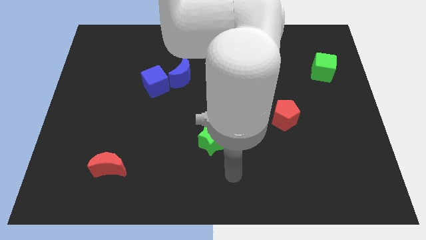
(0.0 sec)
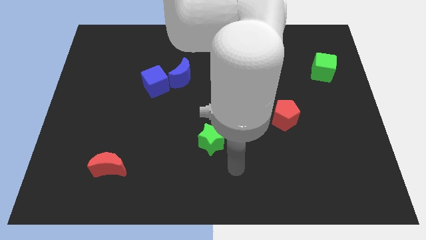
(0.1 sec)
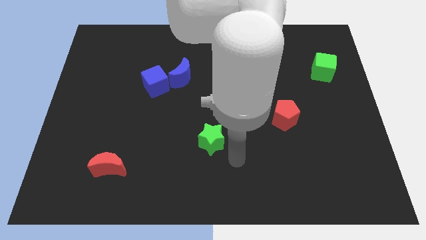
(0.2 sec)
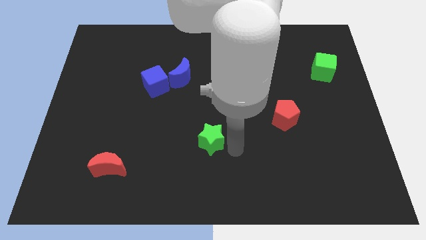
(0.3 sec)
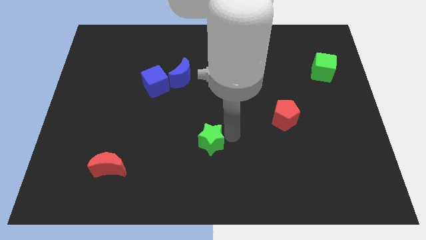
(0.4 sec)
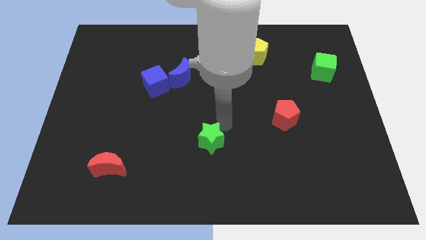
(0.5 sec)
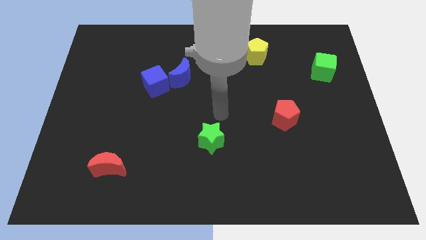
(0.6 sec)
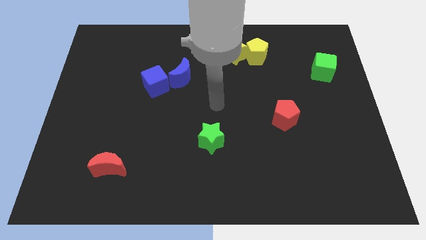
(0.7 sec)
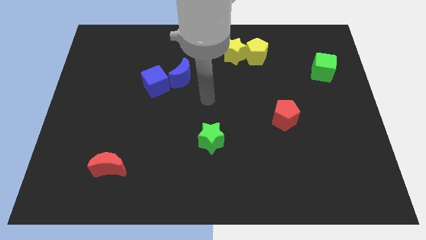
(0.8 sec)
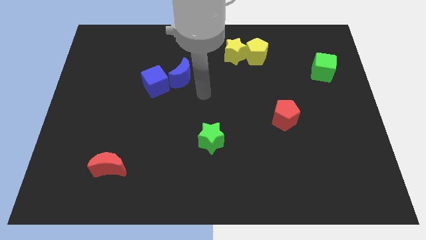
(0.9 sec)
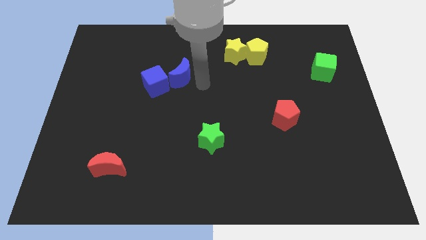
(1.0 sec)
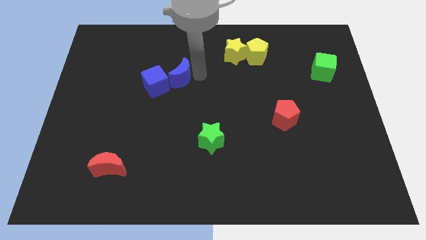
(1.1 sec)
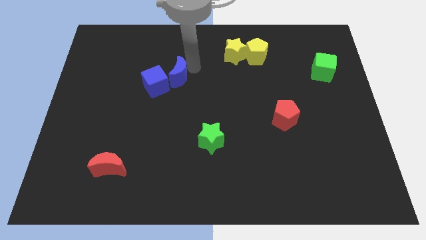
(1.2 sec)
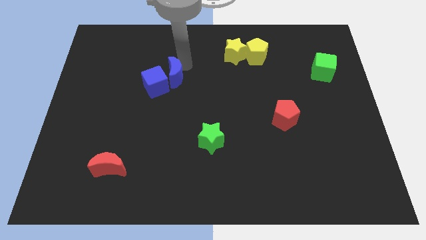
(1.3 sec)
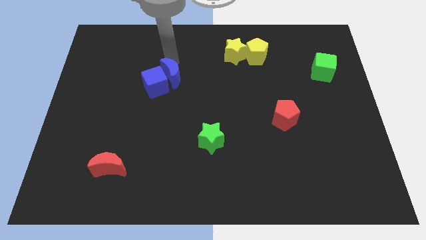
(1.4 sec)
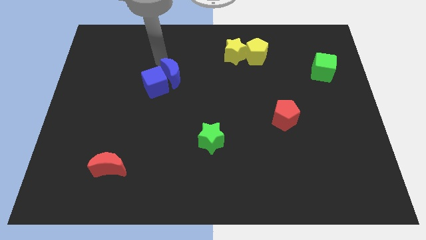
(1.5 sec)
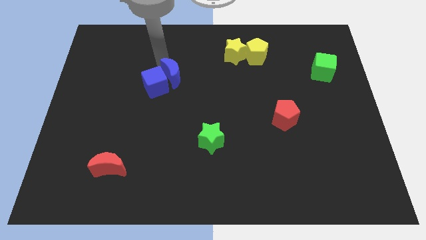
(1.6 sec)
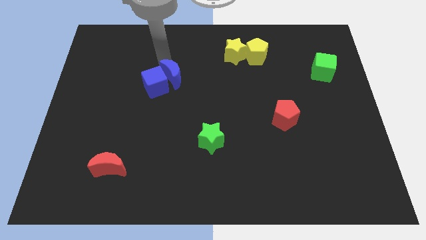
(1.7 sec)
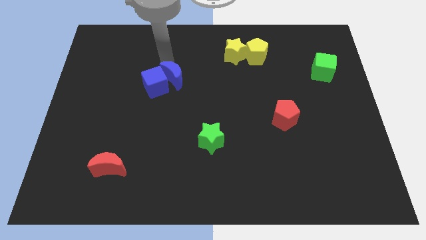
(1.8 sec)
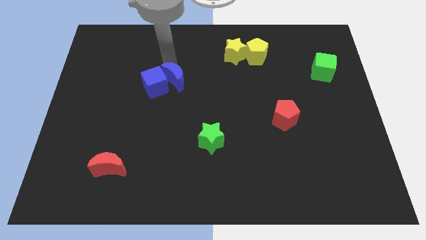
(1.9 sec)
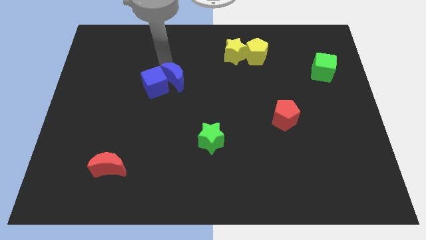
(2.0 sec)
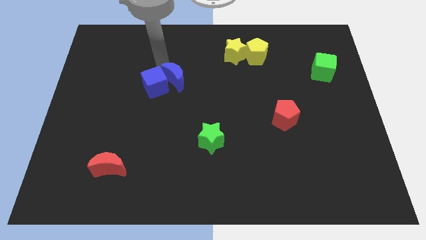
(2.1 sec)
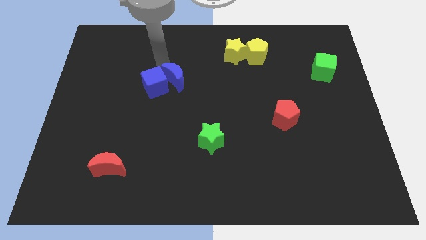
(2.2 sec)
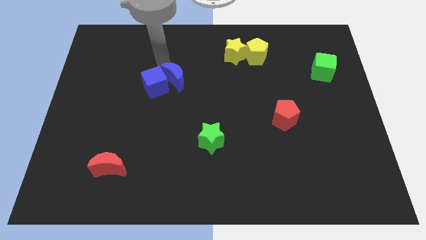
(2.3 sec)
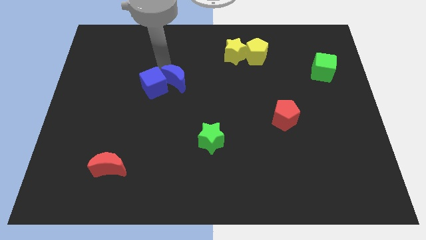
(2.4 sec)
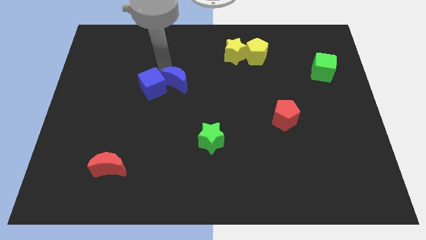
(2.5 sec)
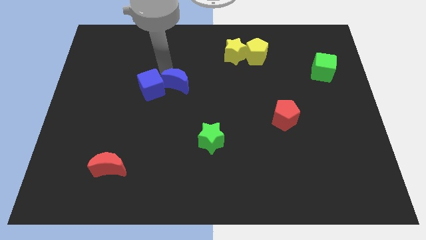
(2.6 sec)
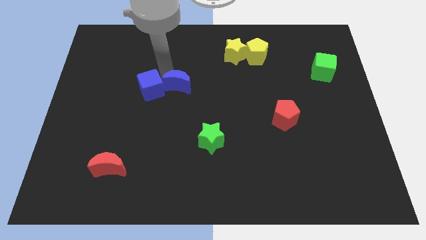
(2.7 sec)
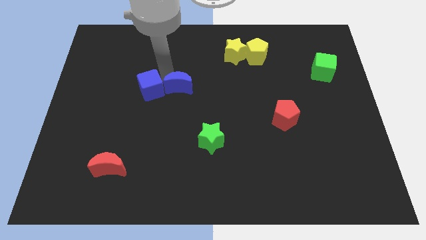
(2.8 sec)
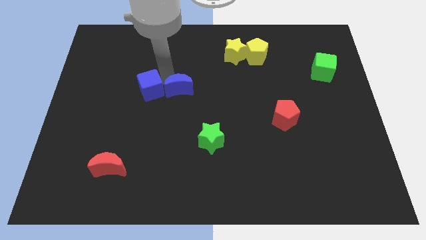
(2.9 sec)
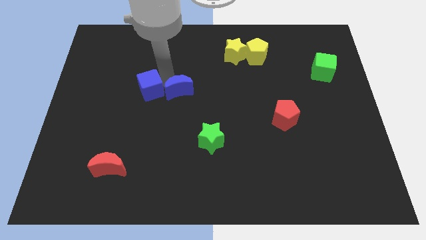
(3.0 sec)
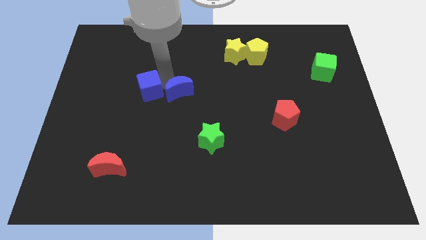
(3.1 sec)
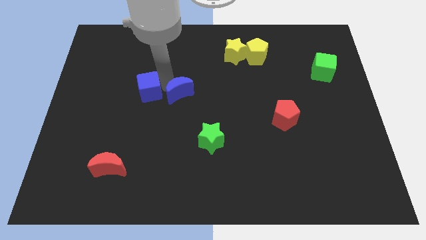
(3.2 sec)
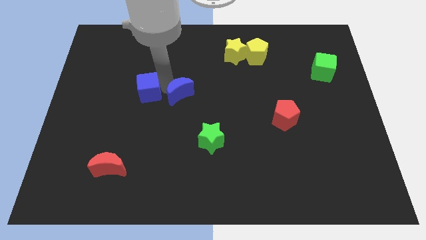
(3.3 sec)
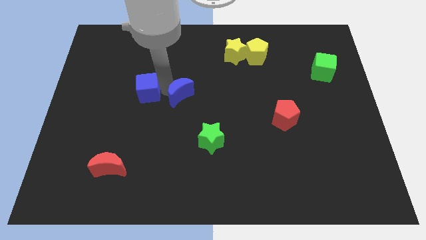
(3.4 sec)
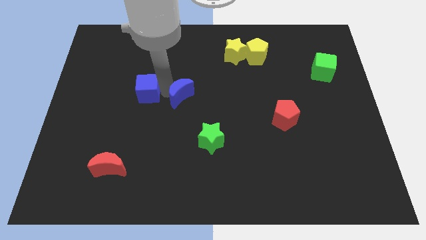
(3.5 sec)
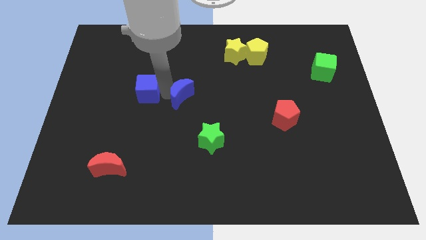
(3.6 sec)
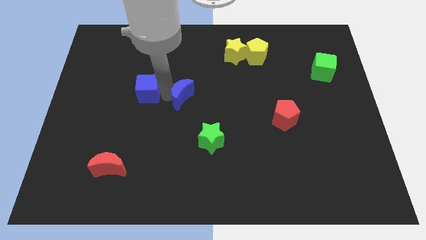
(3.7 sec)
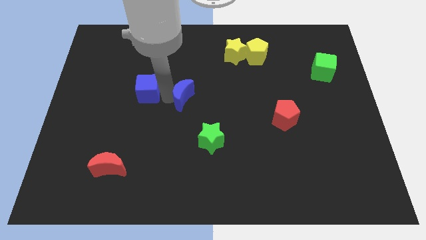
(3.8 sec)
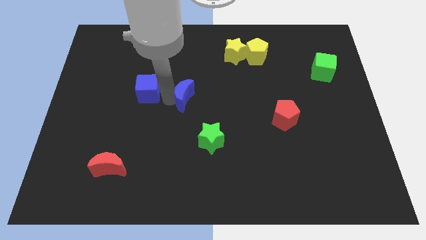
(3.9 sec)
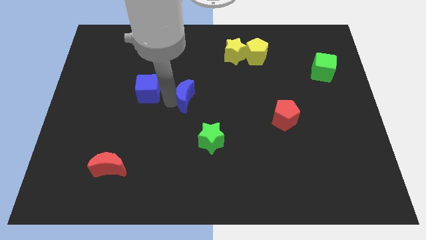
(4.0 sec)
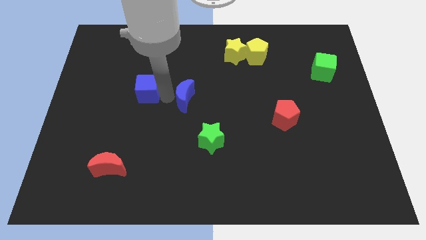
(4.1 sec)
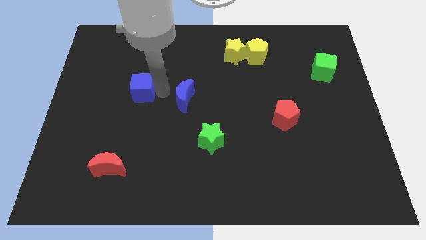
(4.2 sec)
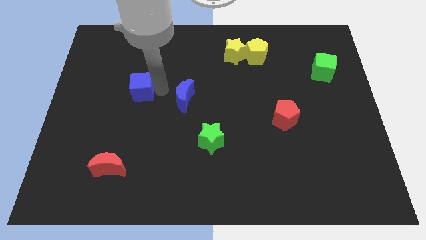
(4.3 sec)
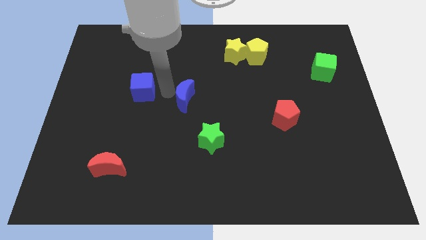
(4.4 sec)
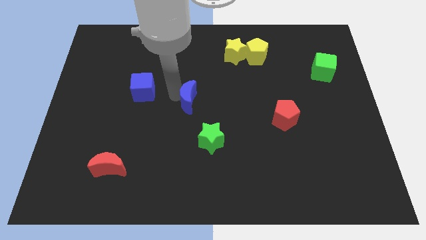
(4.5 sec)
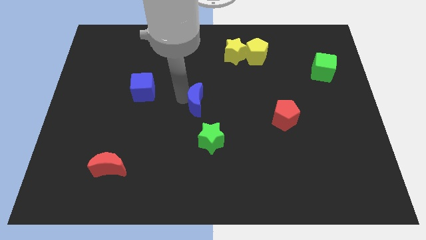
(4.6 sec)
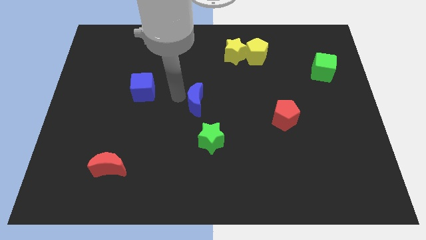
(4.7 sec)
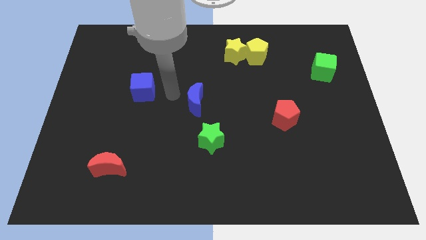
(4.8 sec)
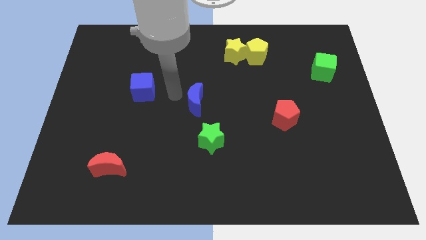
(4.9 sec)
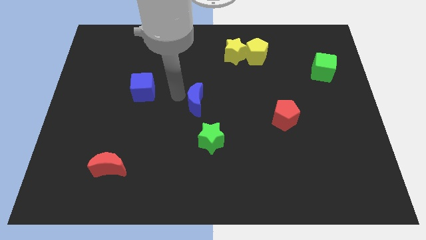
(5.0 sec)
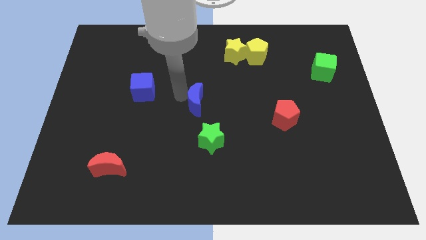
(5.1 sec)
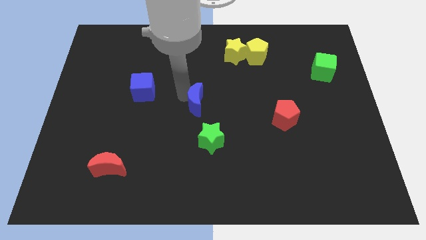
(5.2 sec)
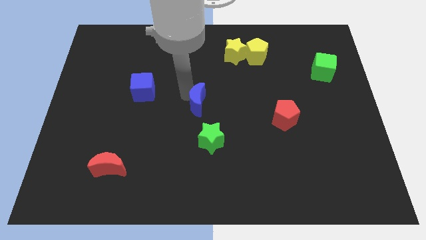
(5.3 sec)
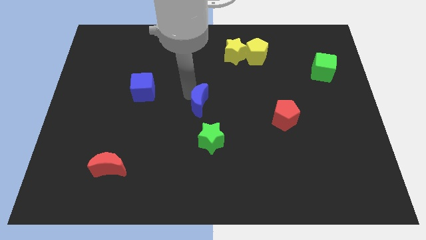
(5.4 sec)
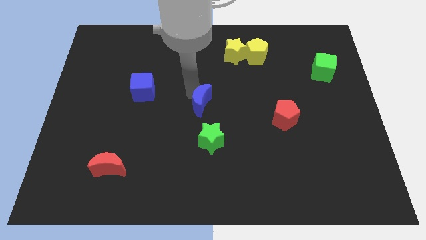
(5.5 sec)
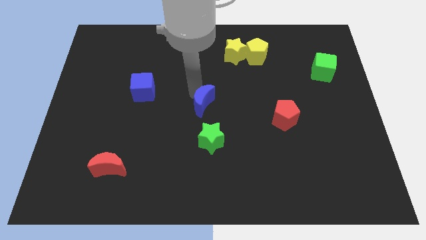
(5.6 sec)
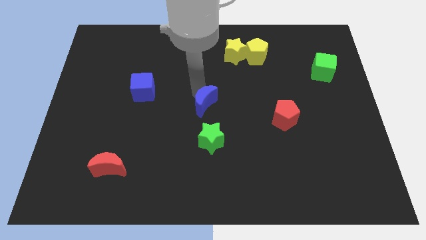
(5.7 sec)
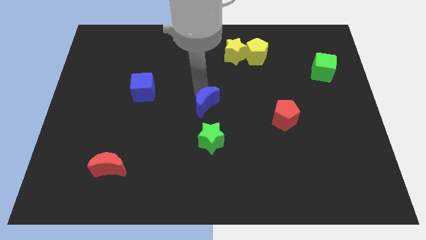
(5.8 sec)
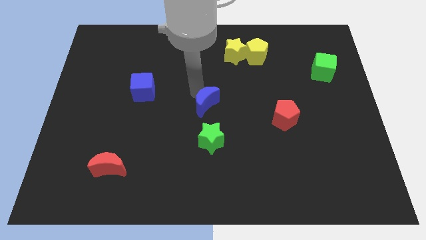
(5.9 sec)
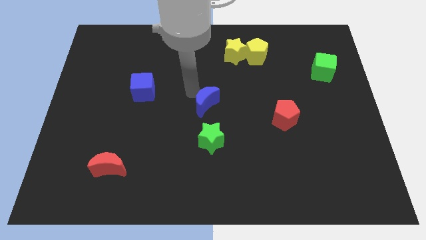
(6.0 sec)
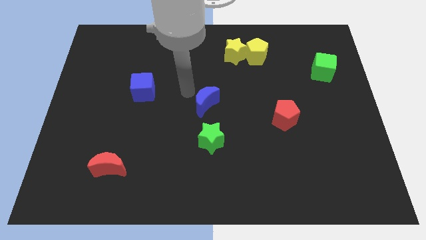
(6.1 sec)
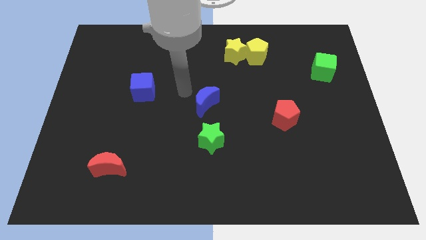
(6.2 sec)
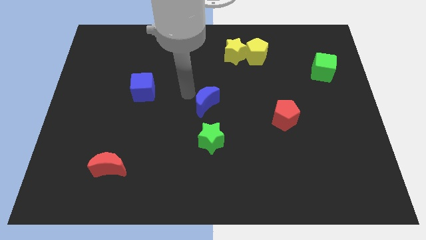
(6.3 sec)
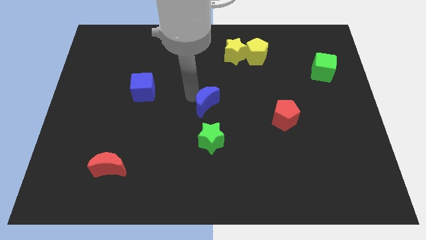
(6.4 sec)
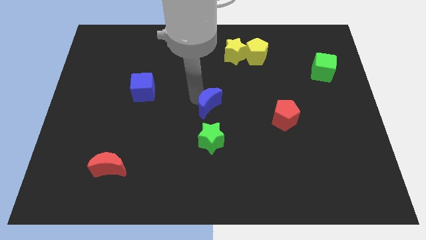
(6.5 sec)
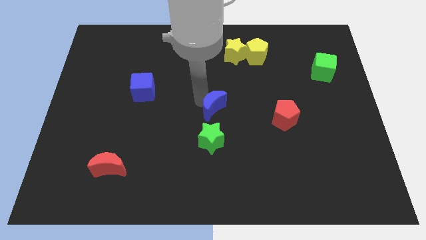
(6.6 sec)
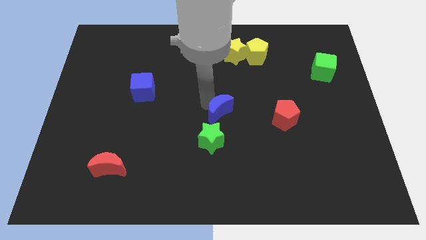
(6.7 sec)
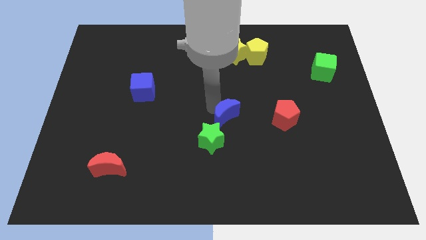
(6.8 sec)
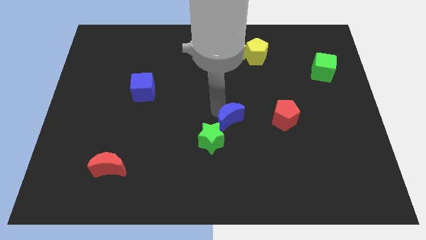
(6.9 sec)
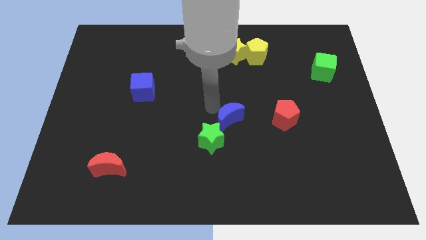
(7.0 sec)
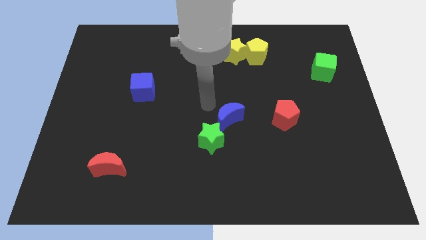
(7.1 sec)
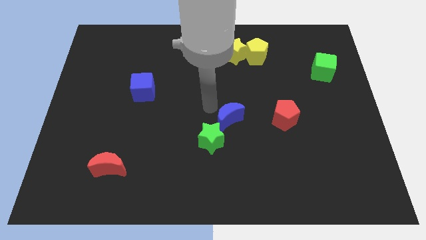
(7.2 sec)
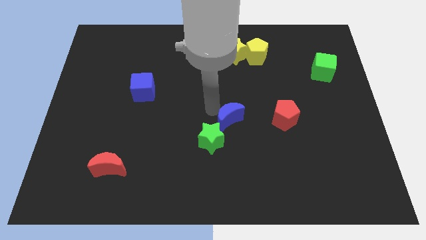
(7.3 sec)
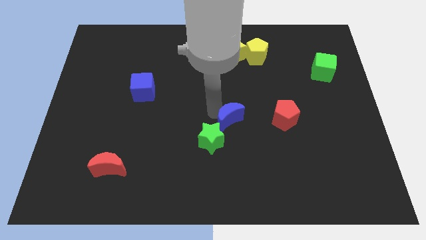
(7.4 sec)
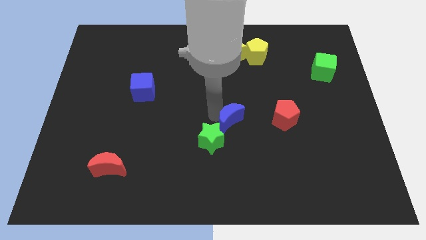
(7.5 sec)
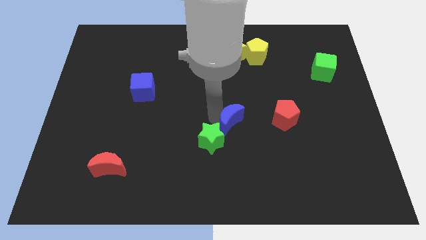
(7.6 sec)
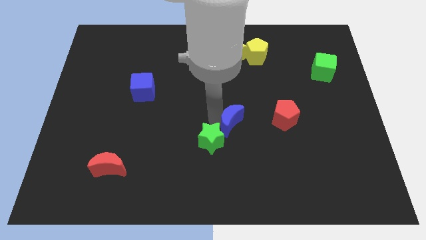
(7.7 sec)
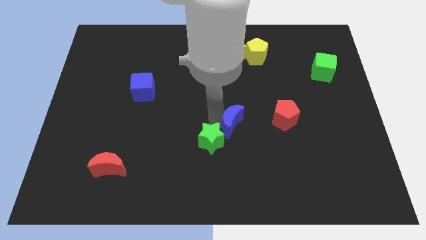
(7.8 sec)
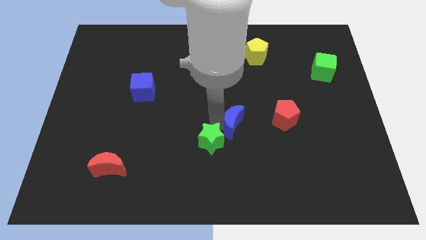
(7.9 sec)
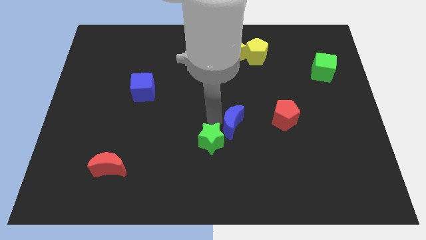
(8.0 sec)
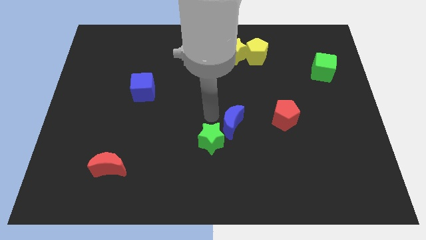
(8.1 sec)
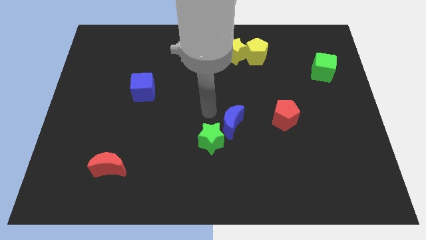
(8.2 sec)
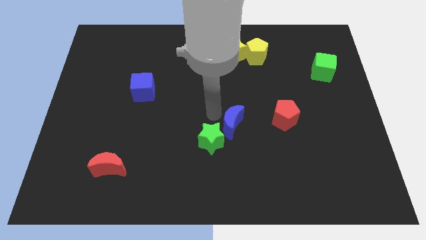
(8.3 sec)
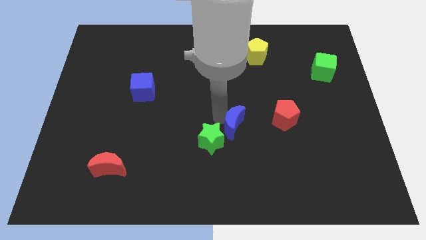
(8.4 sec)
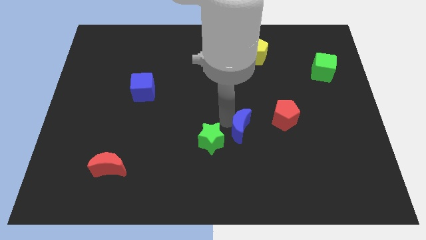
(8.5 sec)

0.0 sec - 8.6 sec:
move the blue moon downwards and right
